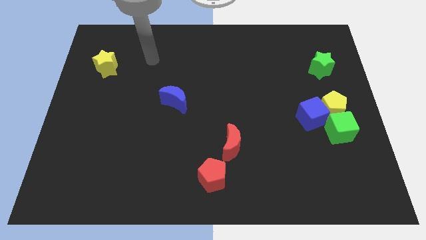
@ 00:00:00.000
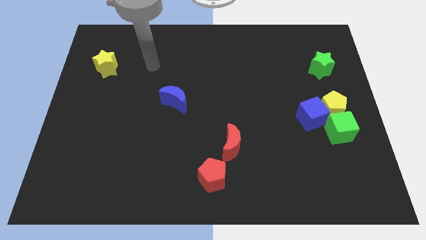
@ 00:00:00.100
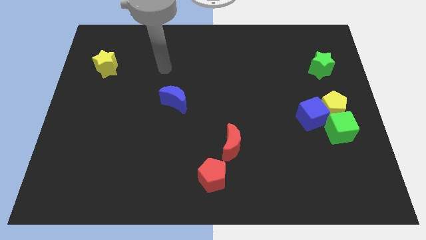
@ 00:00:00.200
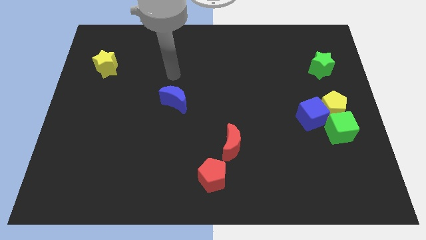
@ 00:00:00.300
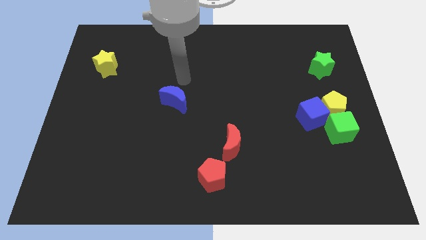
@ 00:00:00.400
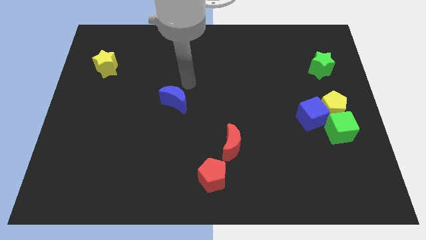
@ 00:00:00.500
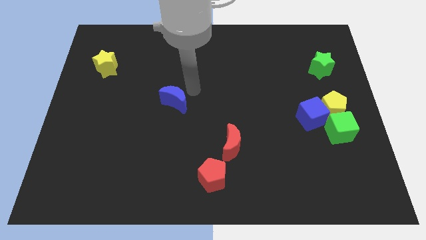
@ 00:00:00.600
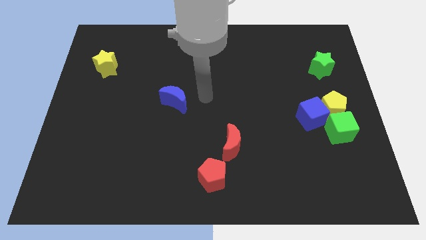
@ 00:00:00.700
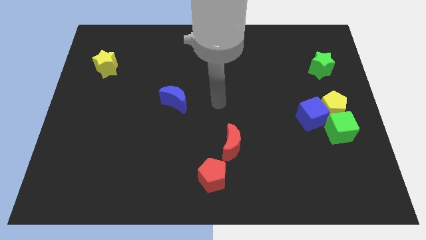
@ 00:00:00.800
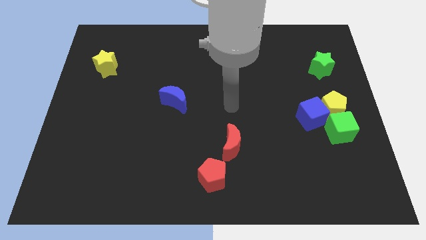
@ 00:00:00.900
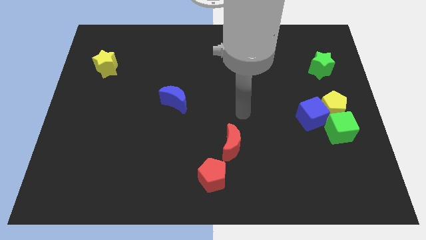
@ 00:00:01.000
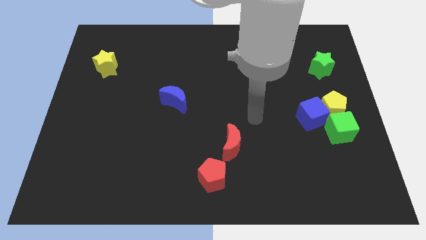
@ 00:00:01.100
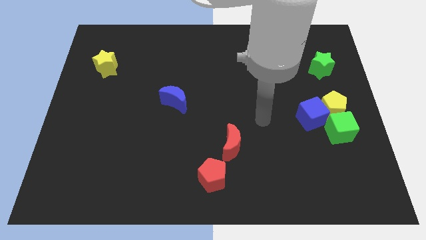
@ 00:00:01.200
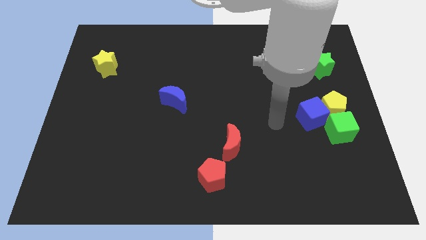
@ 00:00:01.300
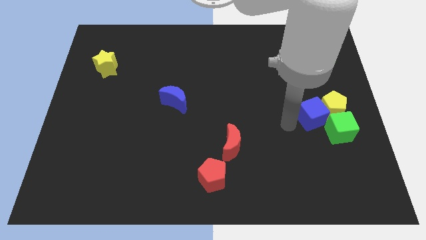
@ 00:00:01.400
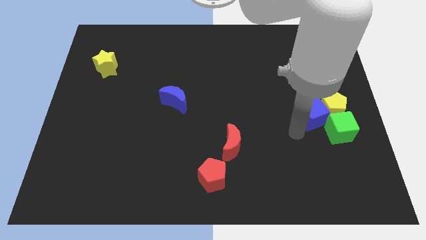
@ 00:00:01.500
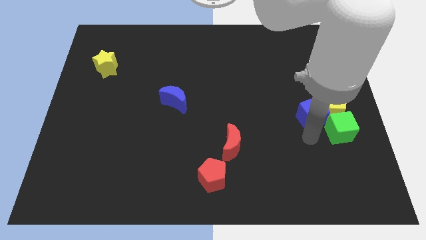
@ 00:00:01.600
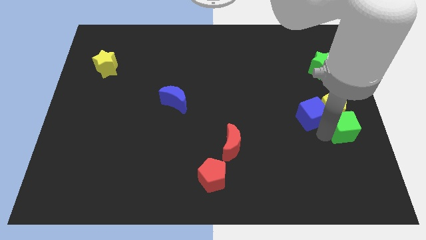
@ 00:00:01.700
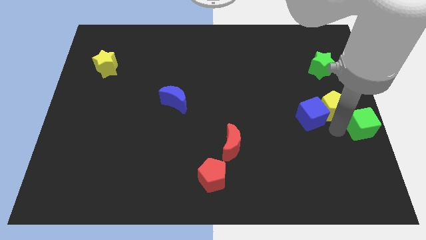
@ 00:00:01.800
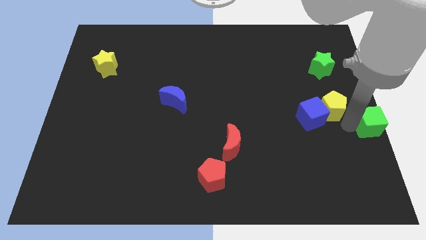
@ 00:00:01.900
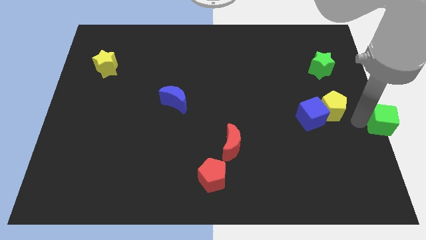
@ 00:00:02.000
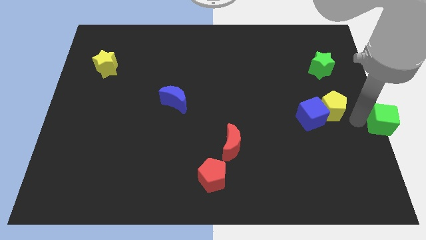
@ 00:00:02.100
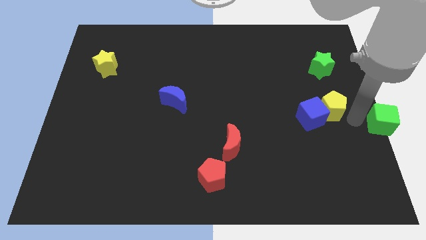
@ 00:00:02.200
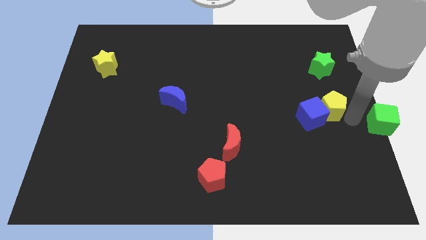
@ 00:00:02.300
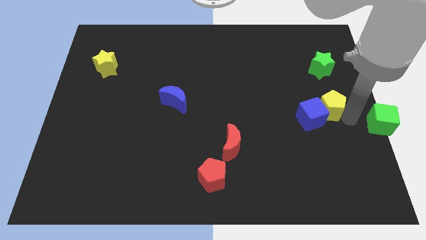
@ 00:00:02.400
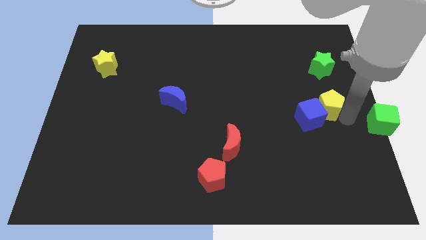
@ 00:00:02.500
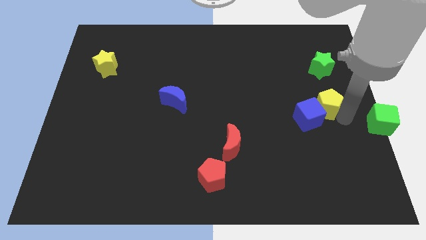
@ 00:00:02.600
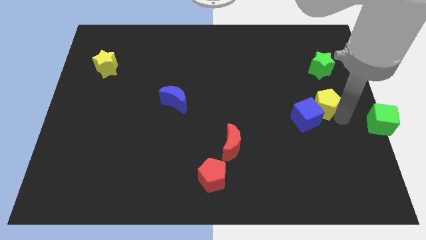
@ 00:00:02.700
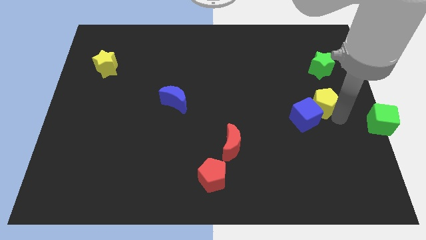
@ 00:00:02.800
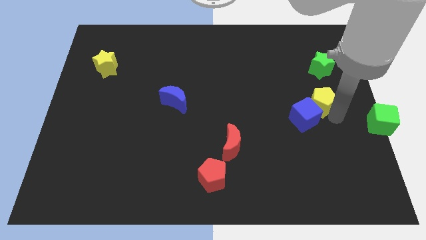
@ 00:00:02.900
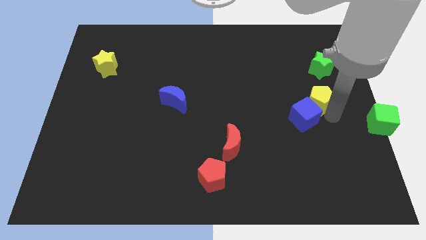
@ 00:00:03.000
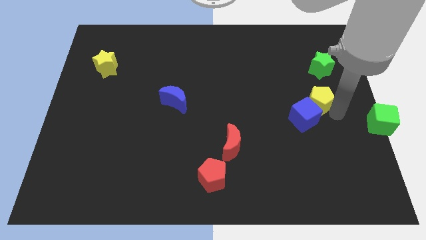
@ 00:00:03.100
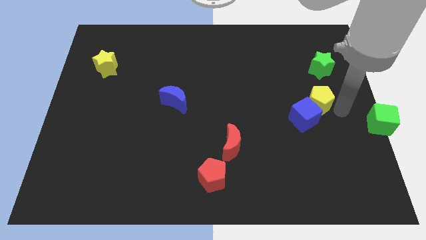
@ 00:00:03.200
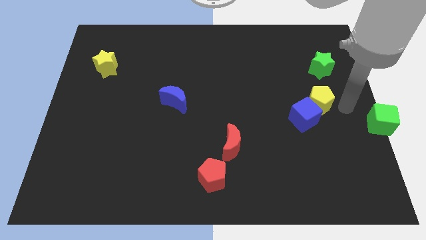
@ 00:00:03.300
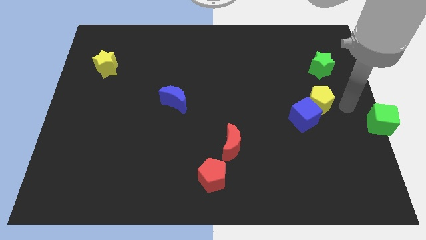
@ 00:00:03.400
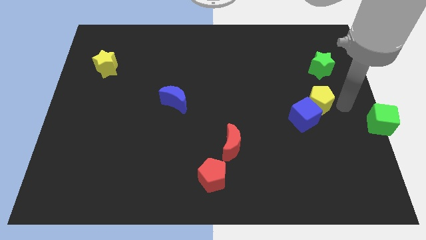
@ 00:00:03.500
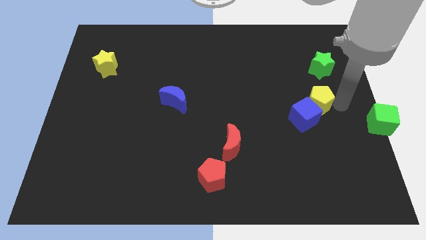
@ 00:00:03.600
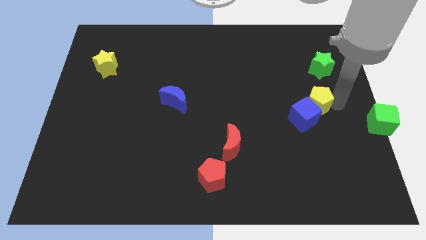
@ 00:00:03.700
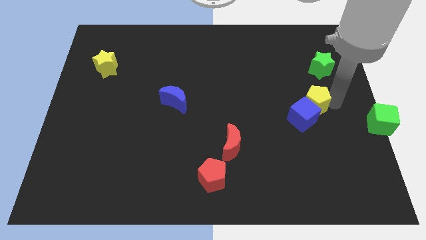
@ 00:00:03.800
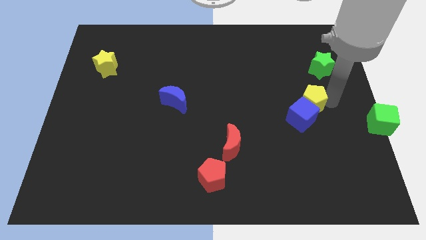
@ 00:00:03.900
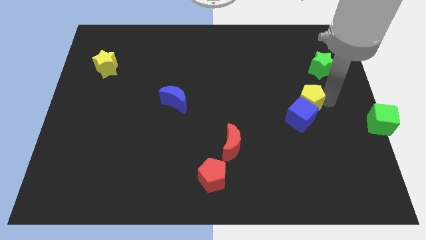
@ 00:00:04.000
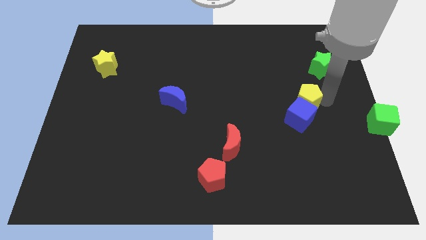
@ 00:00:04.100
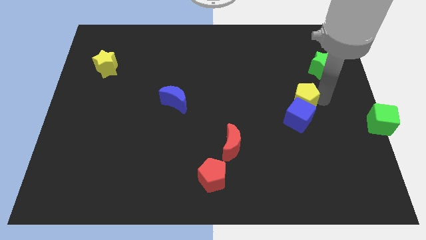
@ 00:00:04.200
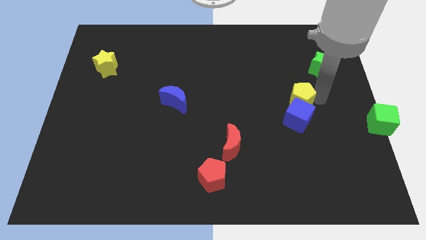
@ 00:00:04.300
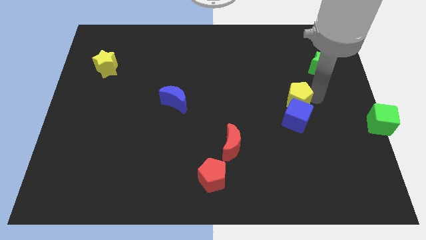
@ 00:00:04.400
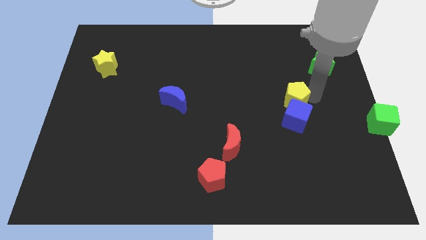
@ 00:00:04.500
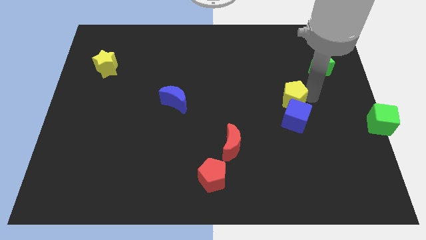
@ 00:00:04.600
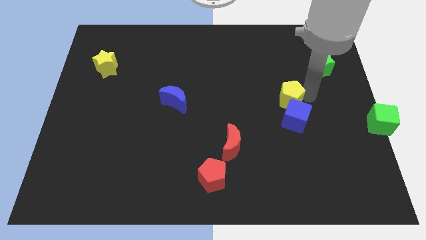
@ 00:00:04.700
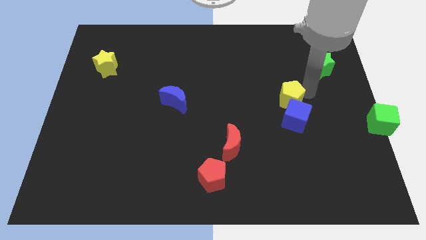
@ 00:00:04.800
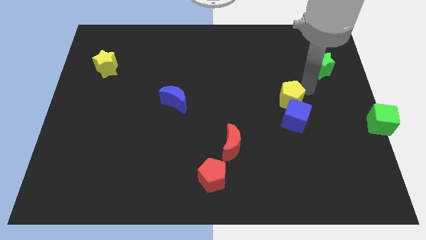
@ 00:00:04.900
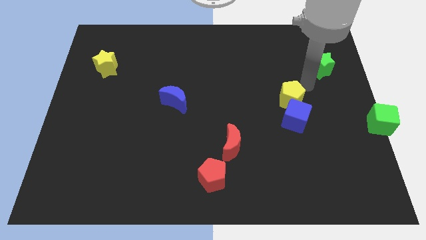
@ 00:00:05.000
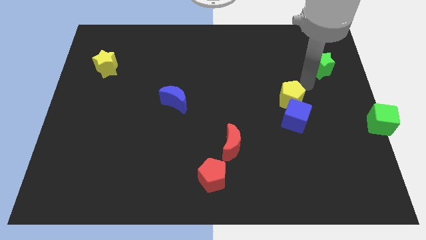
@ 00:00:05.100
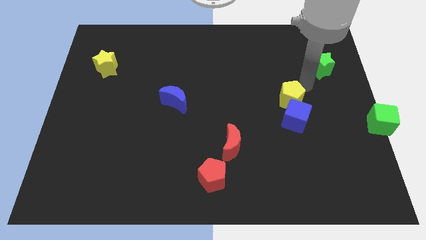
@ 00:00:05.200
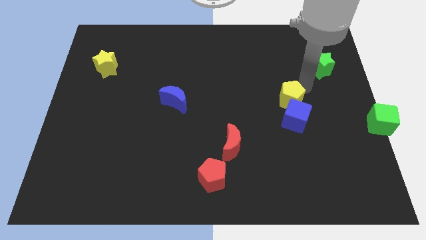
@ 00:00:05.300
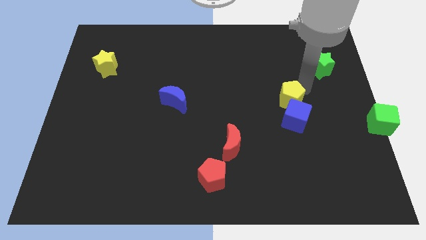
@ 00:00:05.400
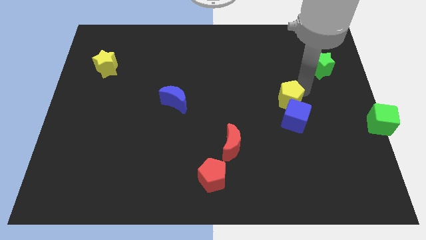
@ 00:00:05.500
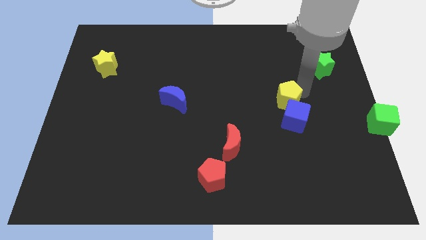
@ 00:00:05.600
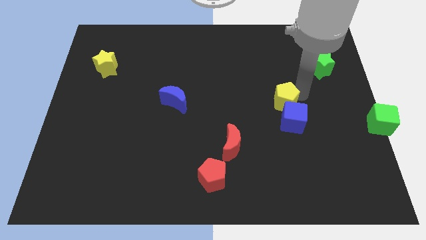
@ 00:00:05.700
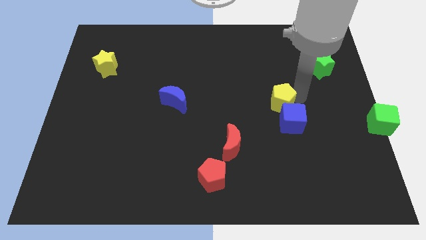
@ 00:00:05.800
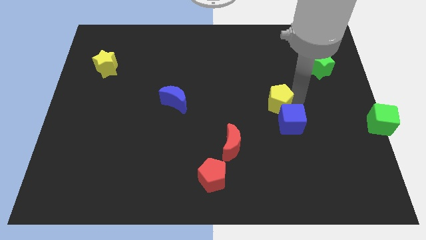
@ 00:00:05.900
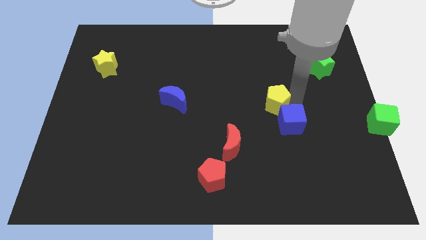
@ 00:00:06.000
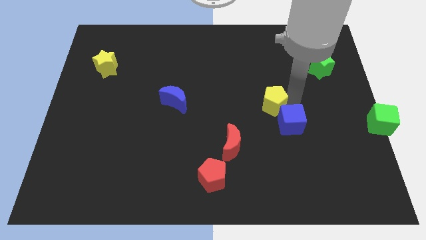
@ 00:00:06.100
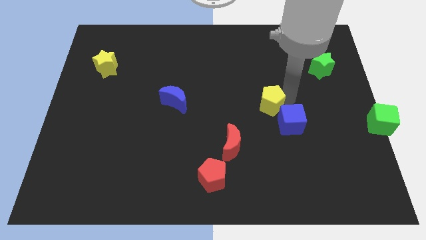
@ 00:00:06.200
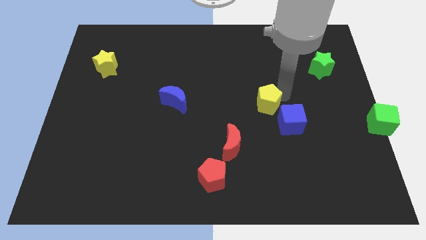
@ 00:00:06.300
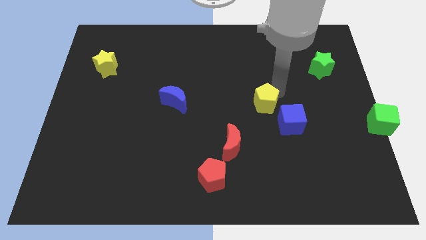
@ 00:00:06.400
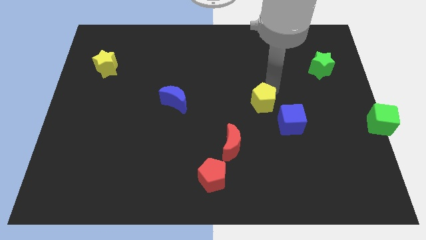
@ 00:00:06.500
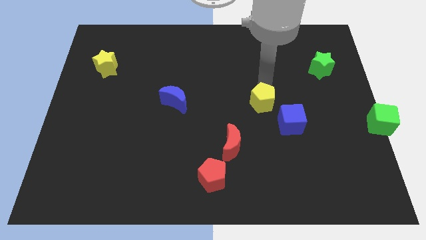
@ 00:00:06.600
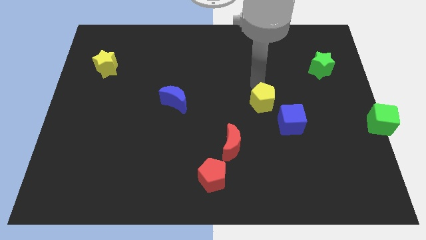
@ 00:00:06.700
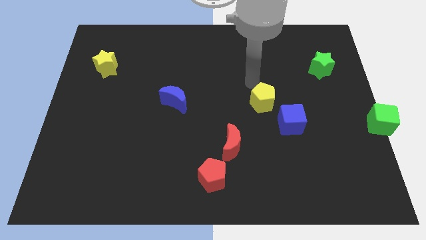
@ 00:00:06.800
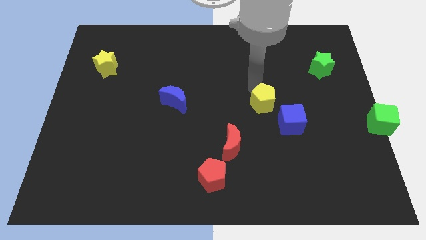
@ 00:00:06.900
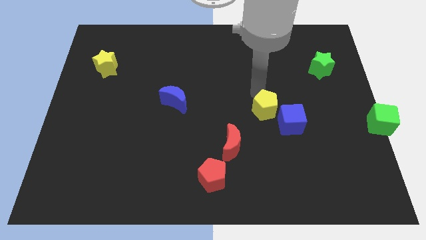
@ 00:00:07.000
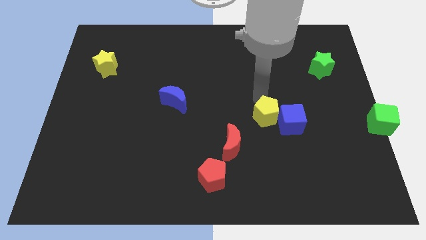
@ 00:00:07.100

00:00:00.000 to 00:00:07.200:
slide the yellow pentagon diagonally downwards and left a little bit

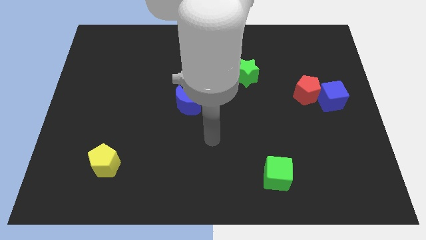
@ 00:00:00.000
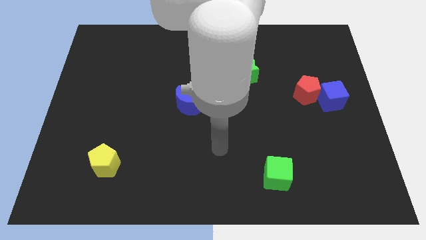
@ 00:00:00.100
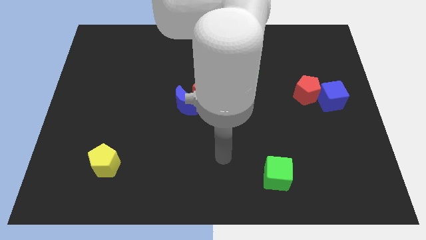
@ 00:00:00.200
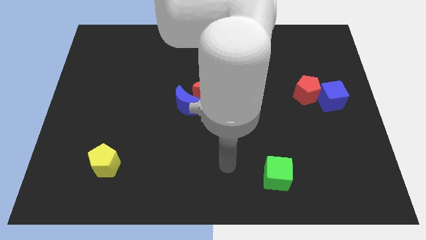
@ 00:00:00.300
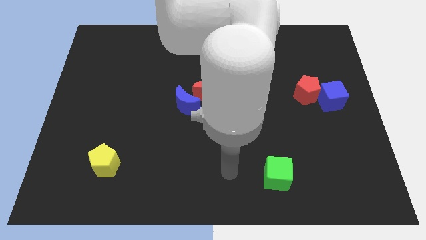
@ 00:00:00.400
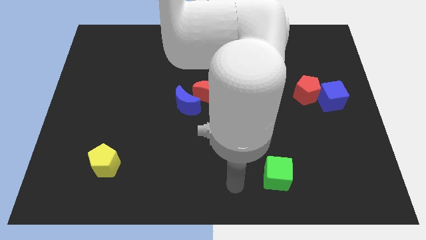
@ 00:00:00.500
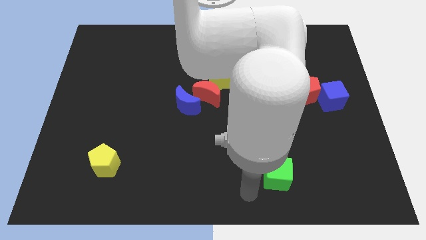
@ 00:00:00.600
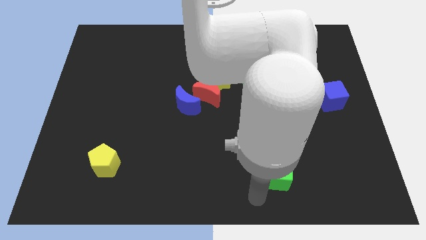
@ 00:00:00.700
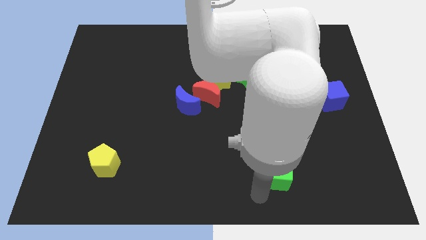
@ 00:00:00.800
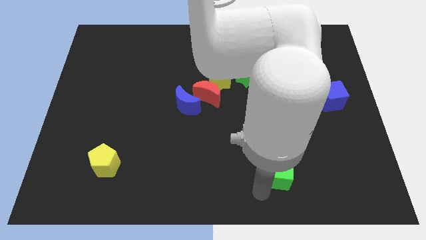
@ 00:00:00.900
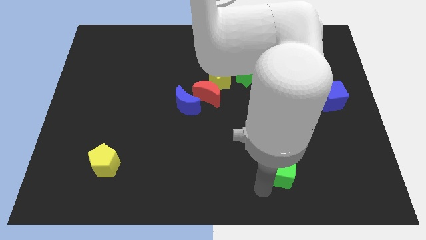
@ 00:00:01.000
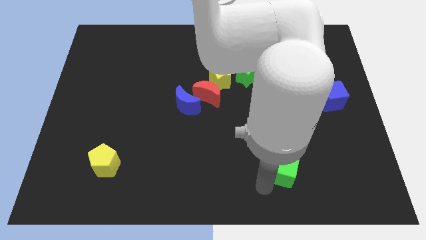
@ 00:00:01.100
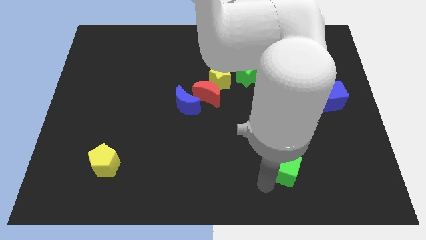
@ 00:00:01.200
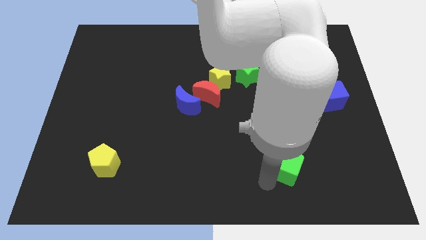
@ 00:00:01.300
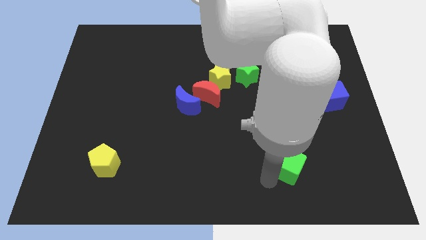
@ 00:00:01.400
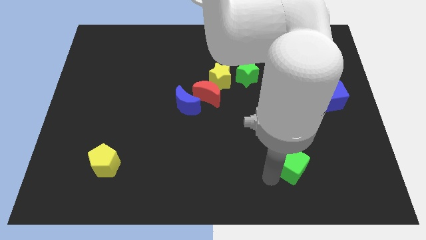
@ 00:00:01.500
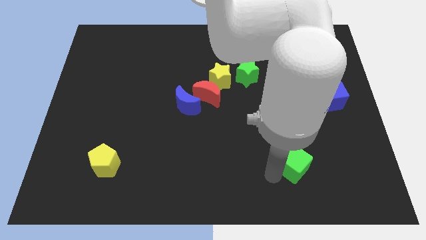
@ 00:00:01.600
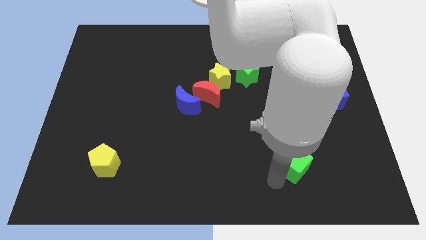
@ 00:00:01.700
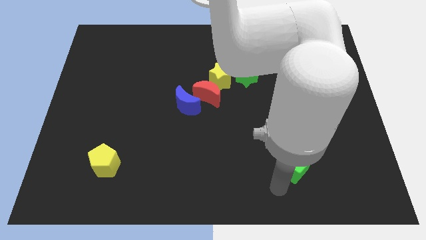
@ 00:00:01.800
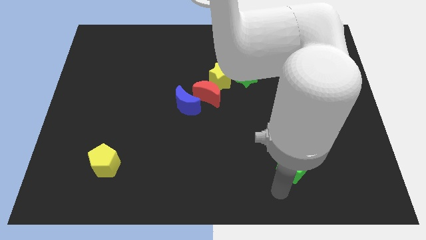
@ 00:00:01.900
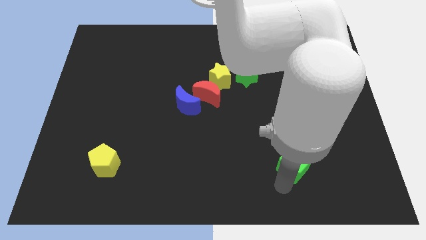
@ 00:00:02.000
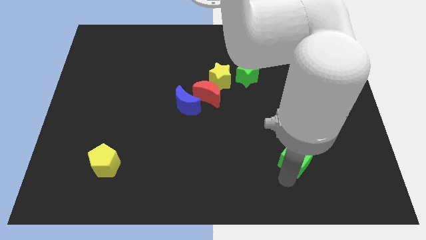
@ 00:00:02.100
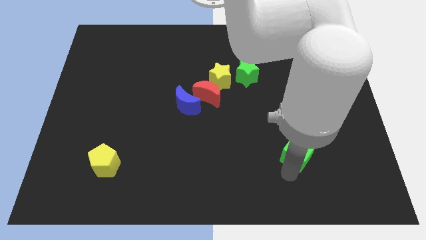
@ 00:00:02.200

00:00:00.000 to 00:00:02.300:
move the green cube a little diagonally up and to the right
